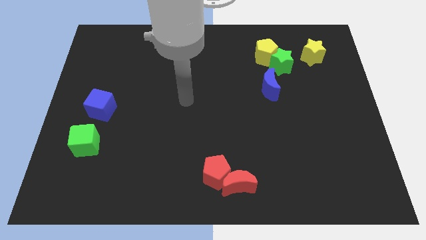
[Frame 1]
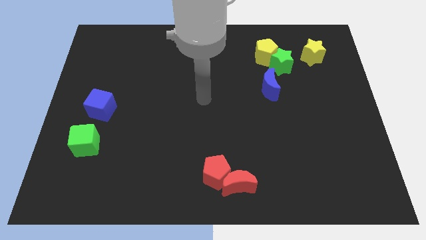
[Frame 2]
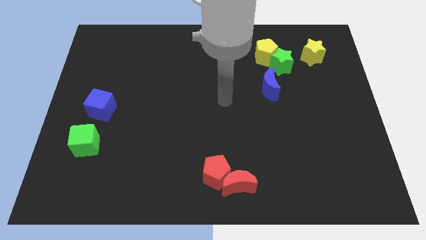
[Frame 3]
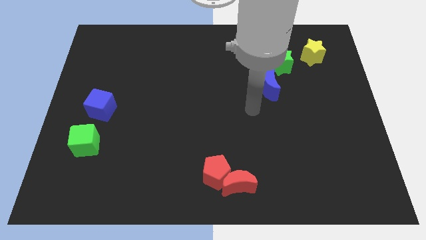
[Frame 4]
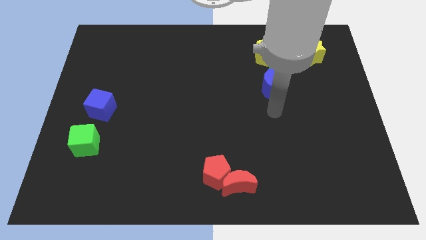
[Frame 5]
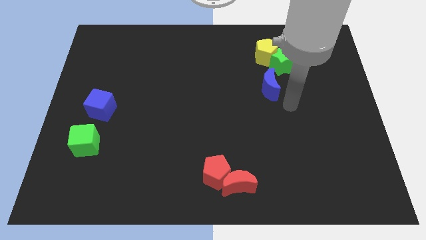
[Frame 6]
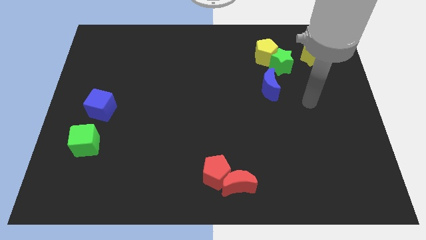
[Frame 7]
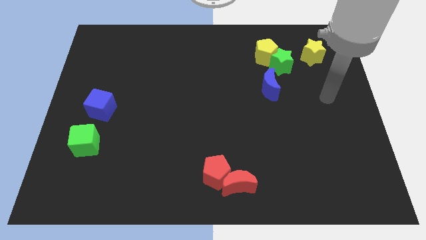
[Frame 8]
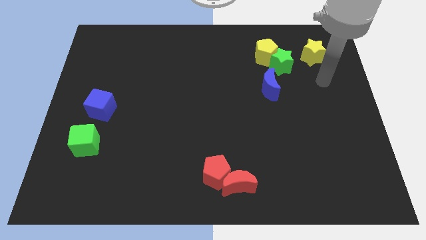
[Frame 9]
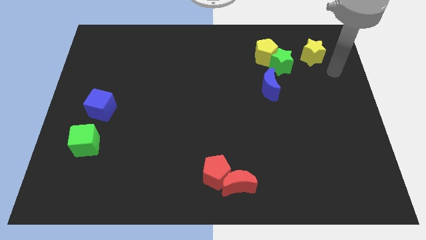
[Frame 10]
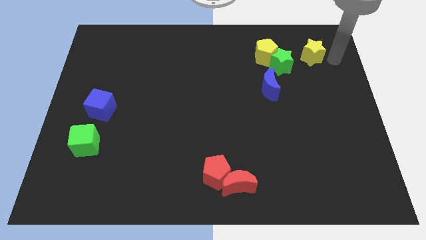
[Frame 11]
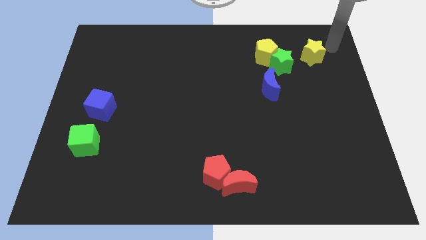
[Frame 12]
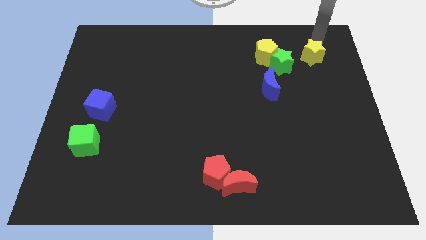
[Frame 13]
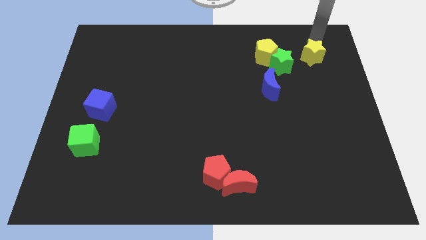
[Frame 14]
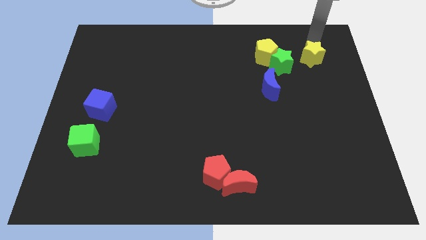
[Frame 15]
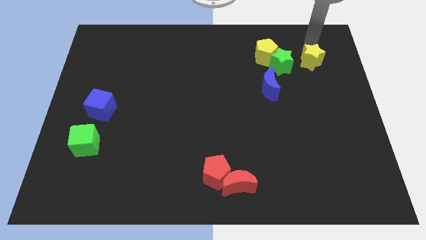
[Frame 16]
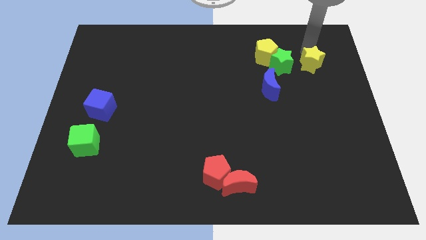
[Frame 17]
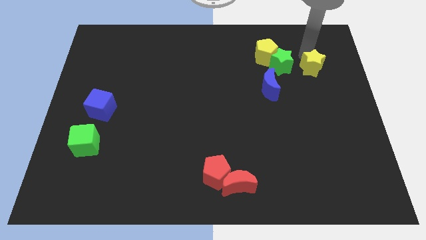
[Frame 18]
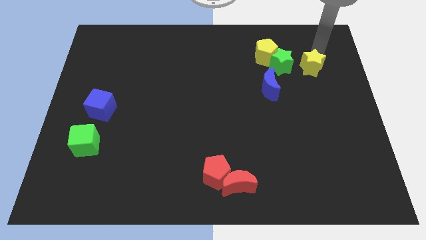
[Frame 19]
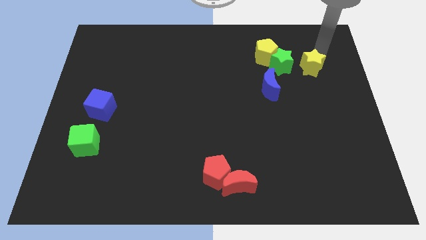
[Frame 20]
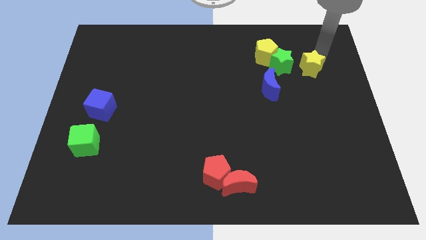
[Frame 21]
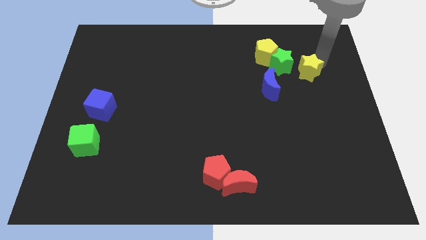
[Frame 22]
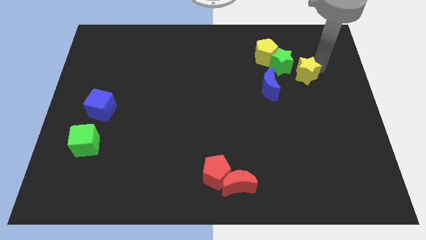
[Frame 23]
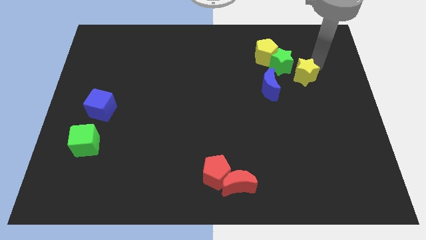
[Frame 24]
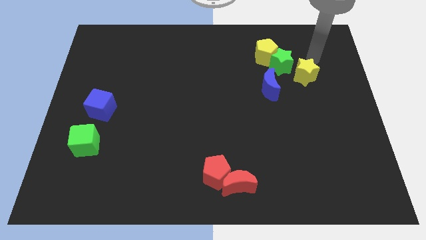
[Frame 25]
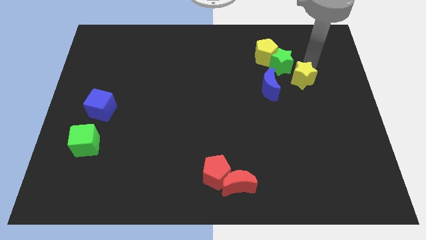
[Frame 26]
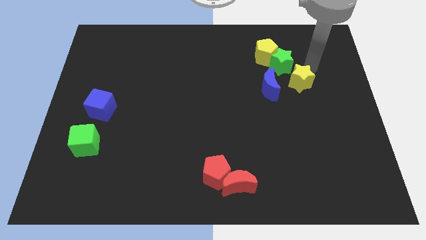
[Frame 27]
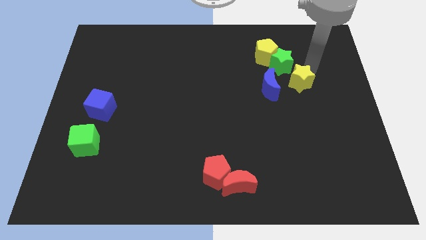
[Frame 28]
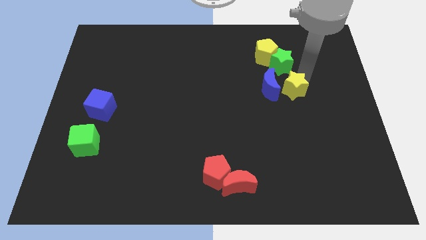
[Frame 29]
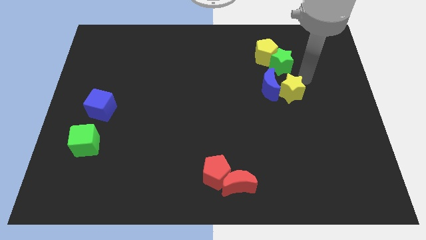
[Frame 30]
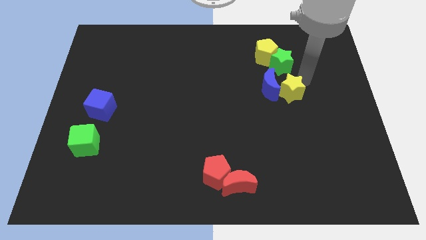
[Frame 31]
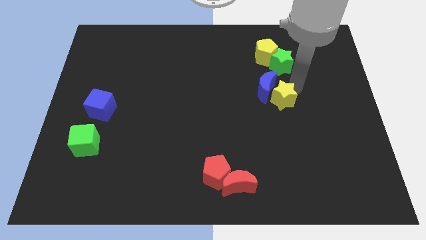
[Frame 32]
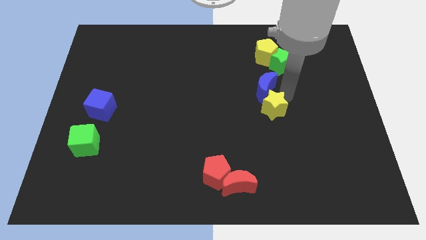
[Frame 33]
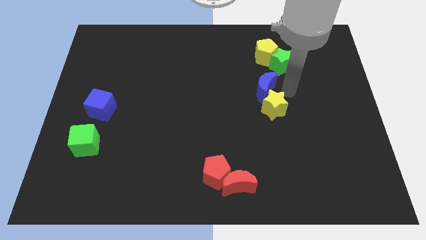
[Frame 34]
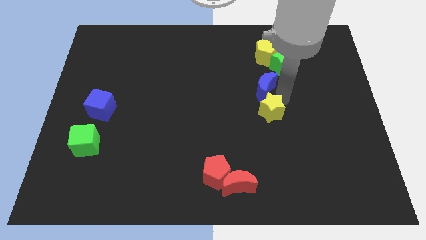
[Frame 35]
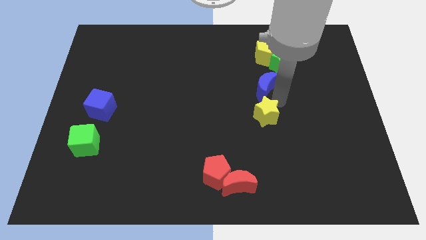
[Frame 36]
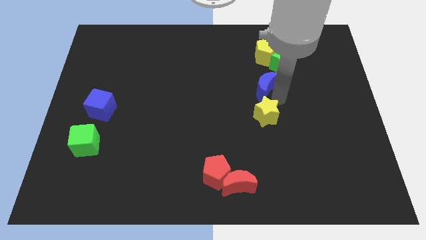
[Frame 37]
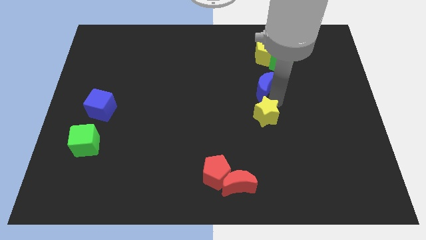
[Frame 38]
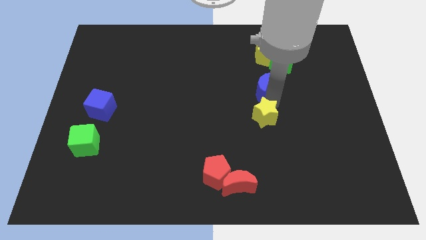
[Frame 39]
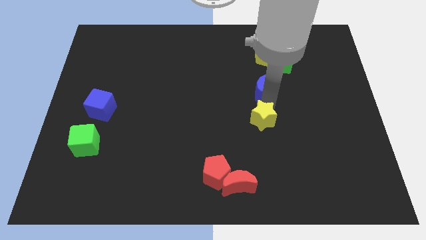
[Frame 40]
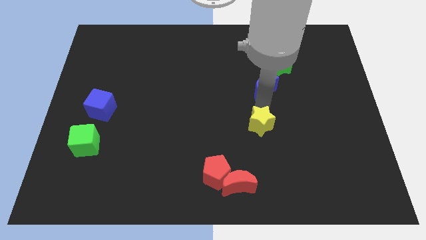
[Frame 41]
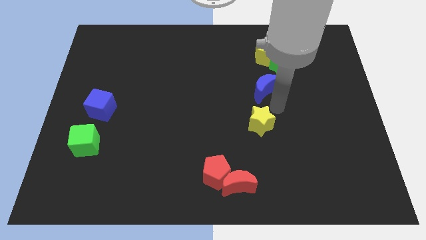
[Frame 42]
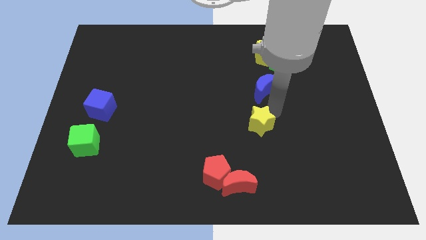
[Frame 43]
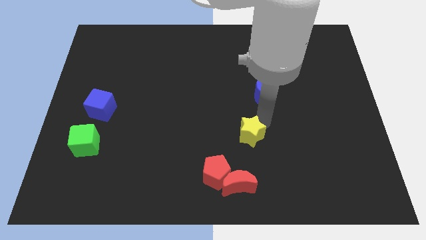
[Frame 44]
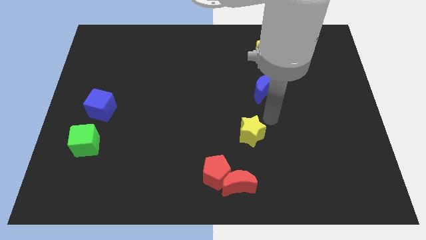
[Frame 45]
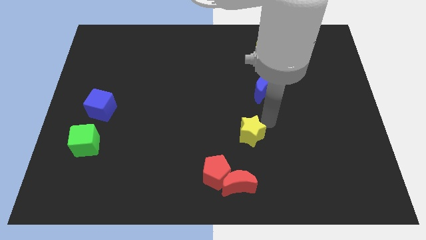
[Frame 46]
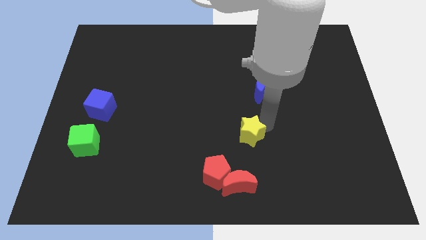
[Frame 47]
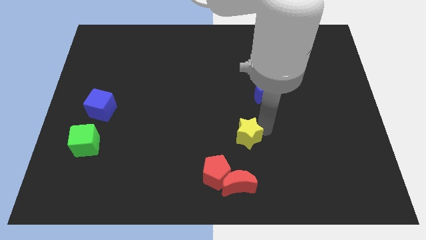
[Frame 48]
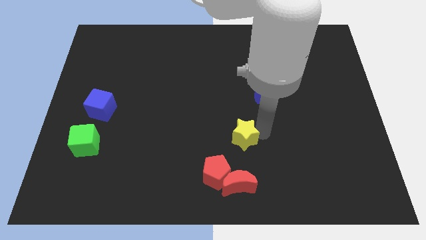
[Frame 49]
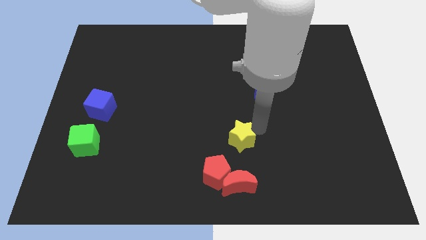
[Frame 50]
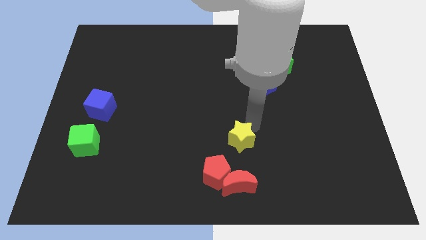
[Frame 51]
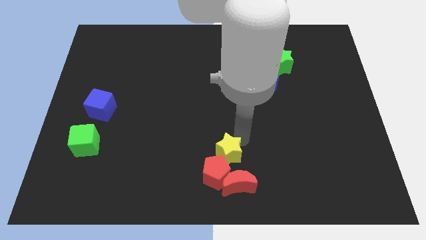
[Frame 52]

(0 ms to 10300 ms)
put the yellow star to the red pentagon

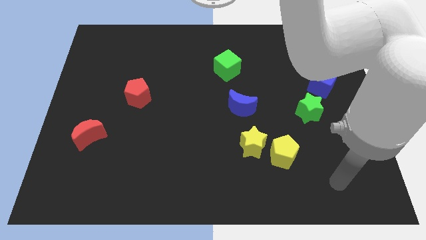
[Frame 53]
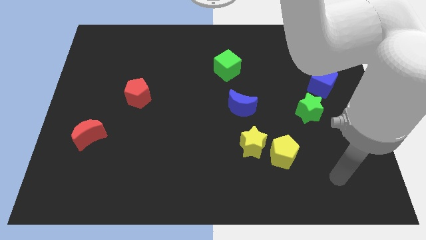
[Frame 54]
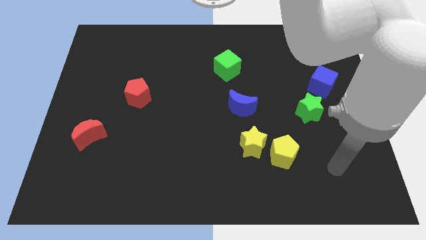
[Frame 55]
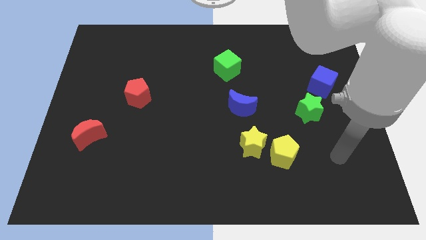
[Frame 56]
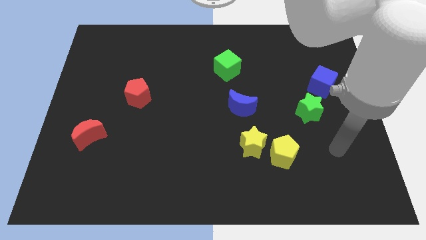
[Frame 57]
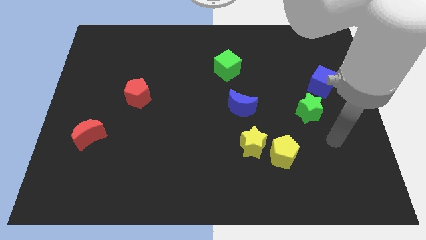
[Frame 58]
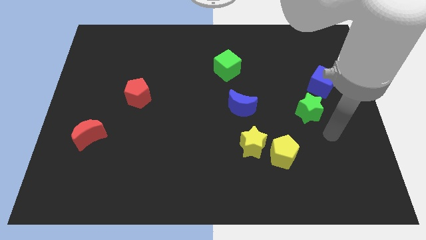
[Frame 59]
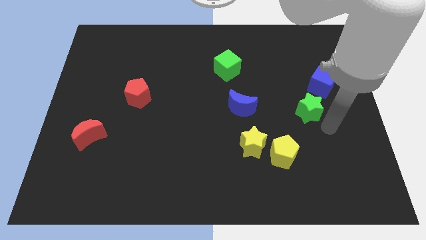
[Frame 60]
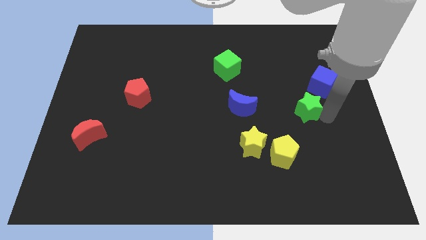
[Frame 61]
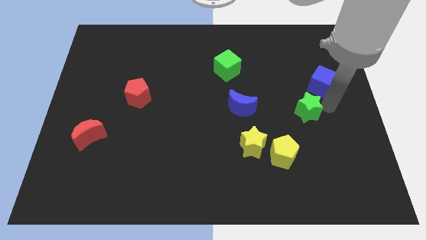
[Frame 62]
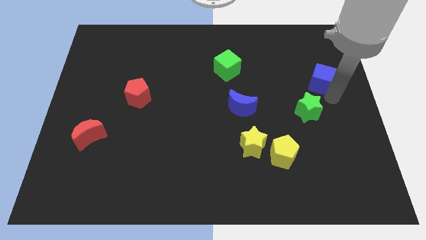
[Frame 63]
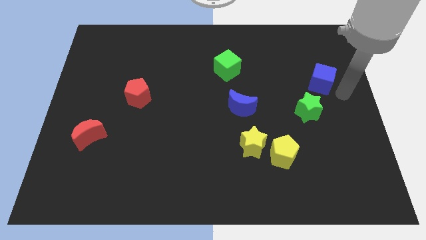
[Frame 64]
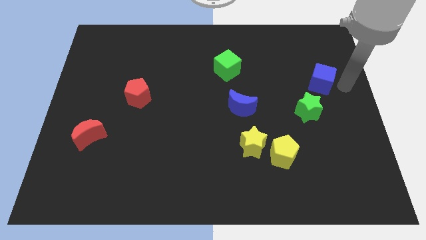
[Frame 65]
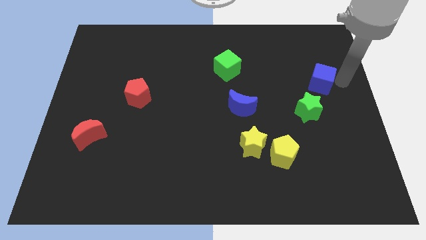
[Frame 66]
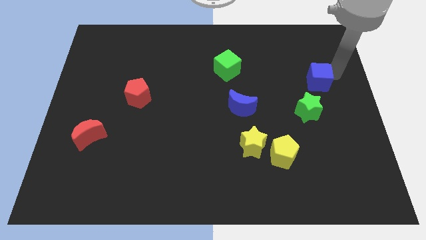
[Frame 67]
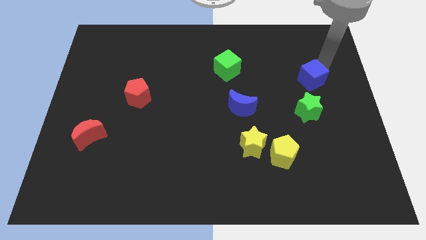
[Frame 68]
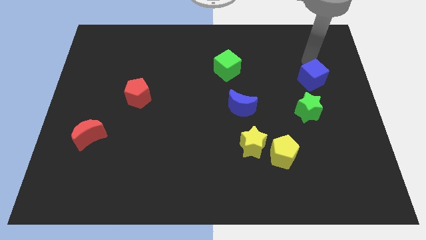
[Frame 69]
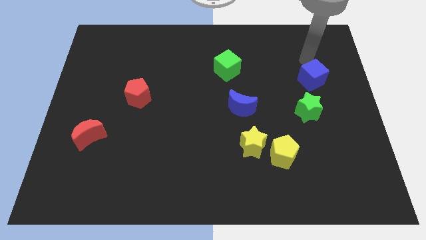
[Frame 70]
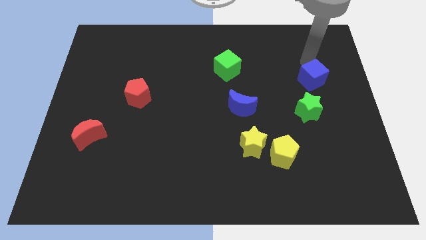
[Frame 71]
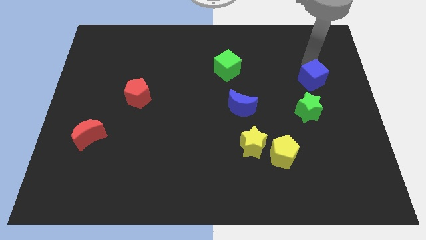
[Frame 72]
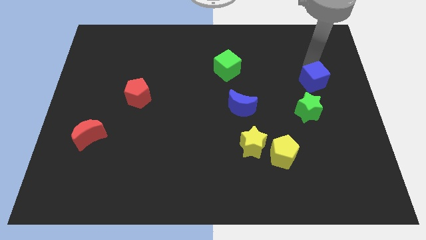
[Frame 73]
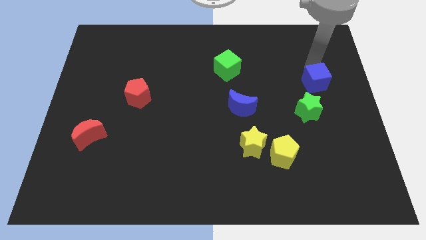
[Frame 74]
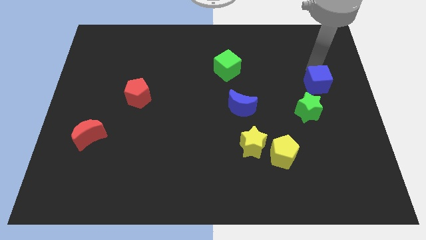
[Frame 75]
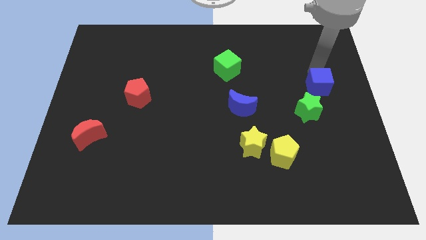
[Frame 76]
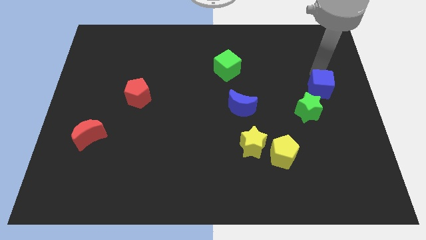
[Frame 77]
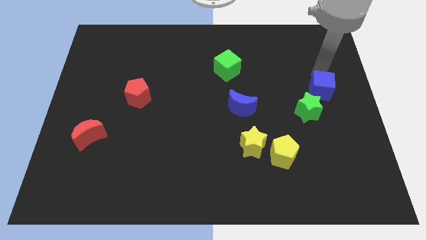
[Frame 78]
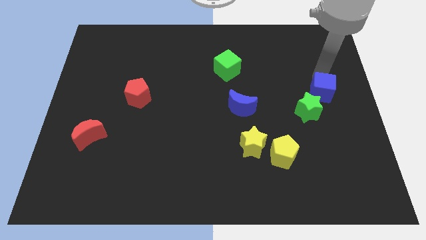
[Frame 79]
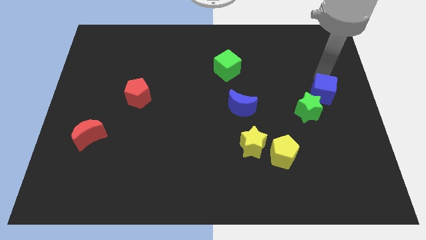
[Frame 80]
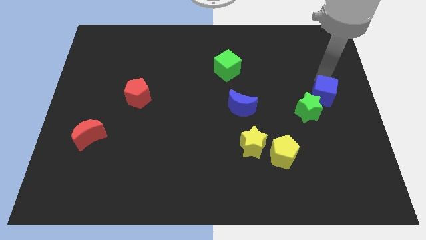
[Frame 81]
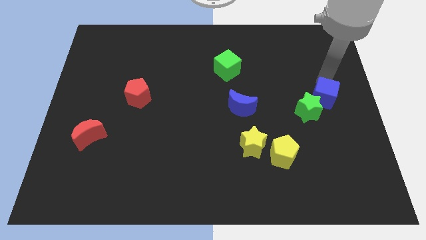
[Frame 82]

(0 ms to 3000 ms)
move the blue cube close to the green star
